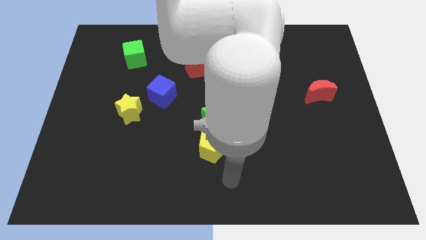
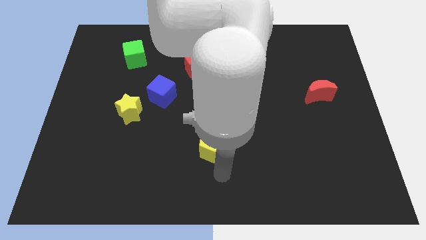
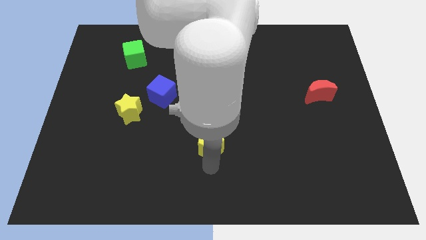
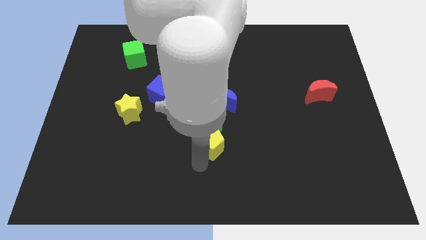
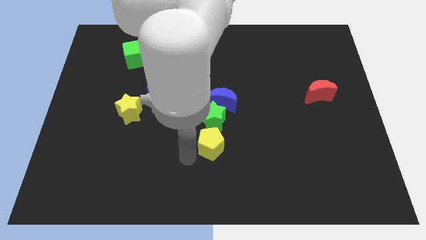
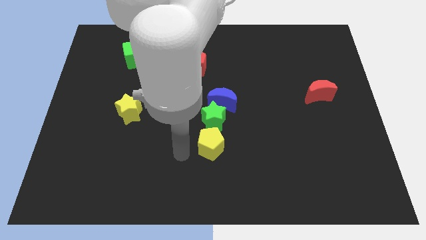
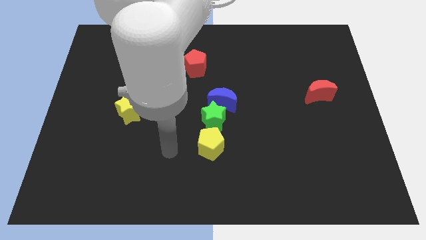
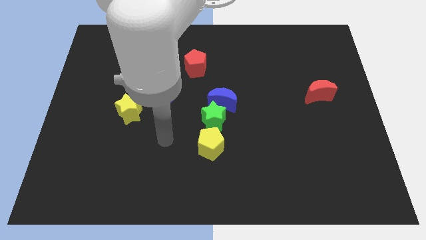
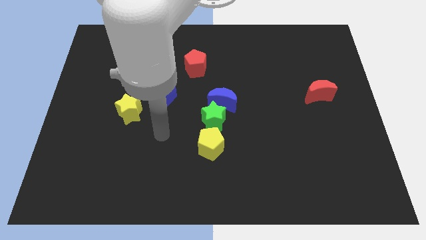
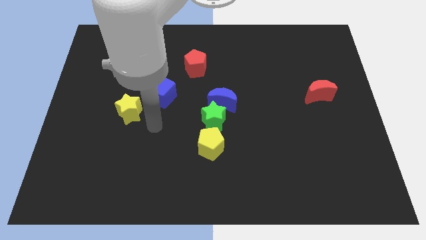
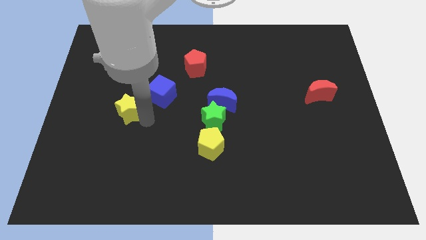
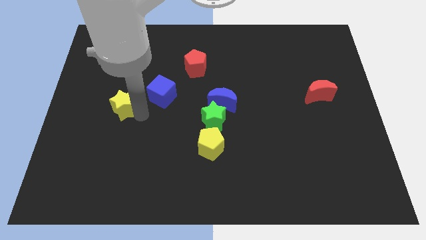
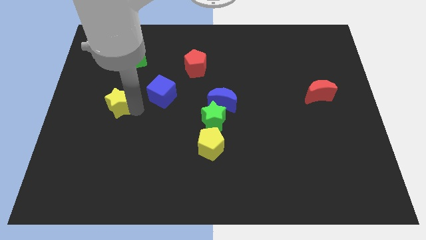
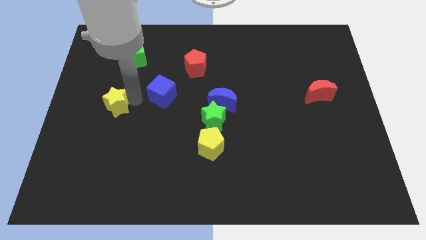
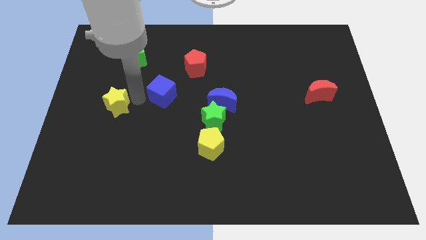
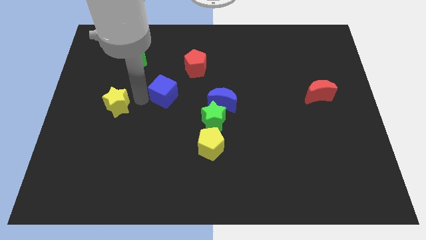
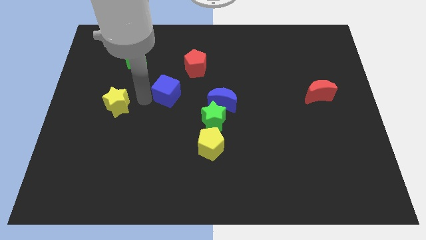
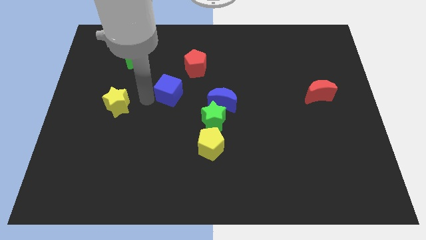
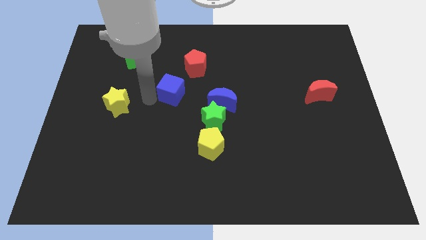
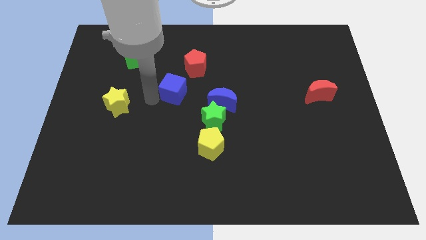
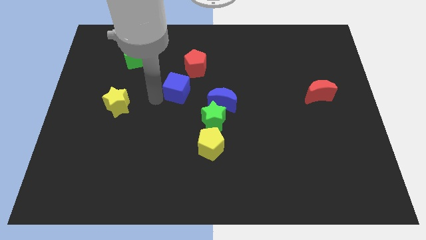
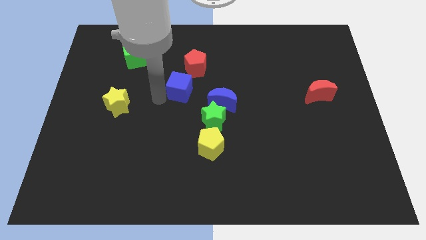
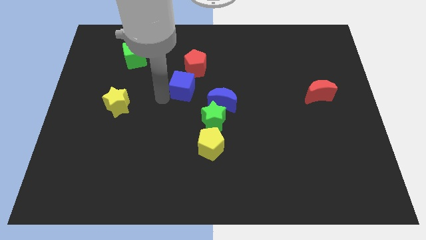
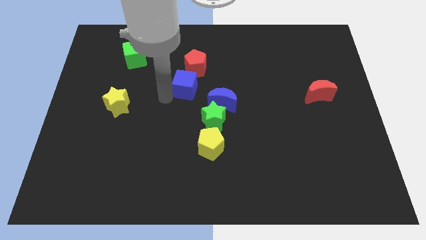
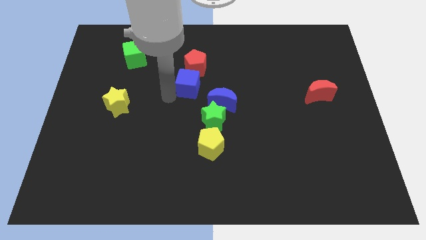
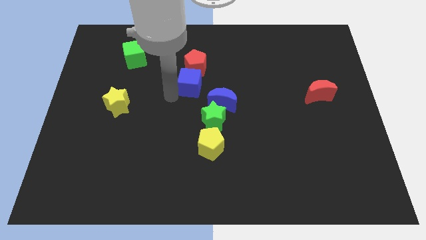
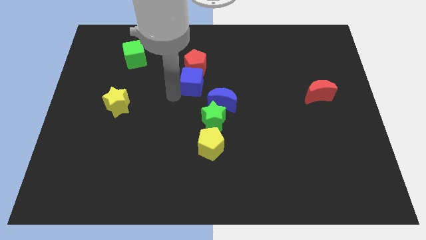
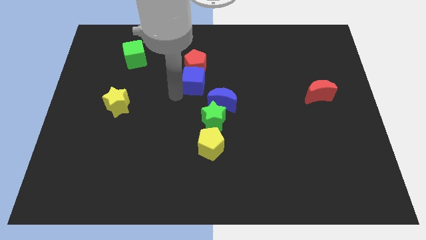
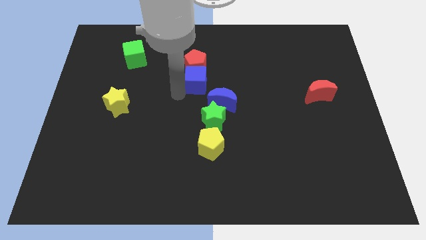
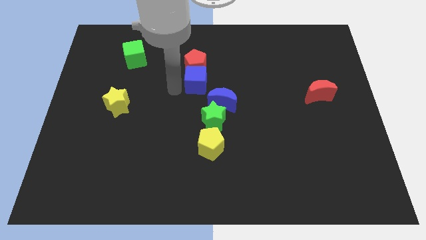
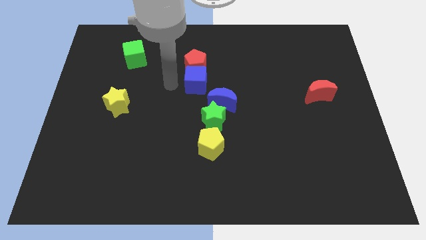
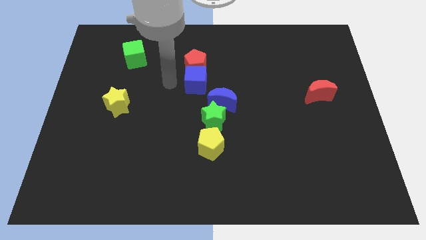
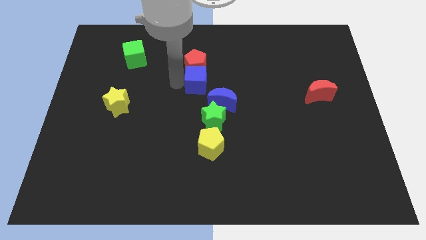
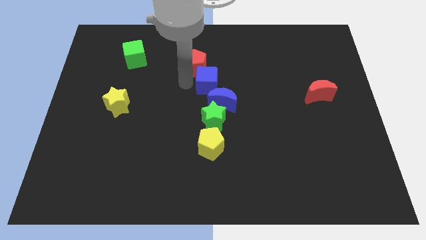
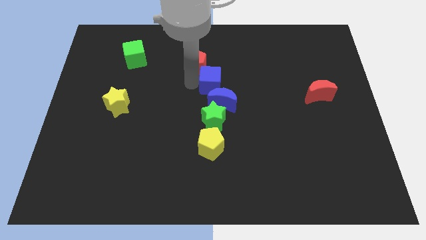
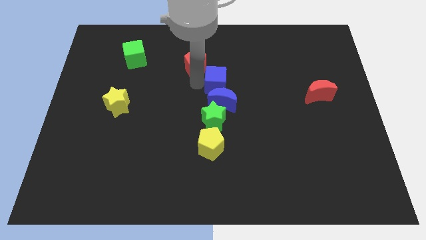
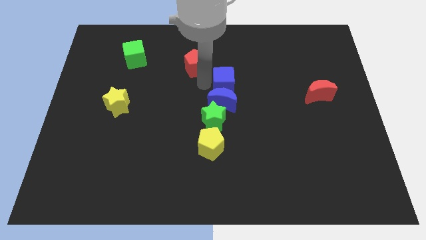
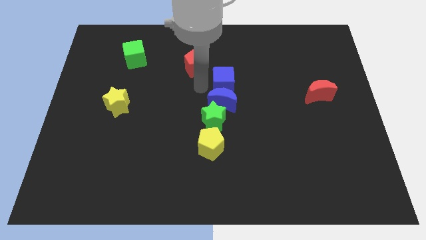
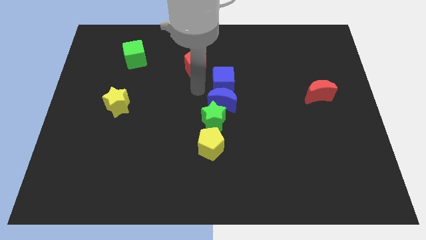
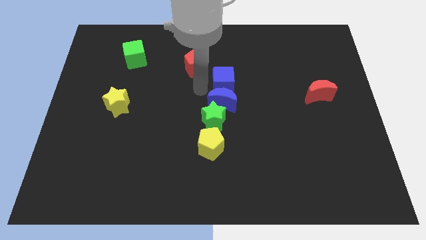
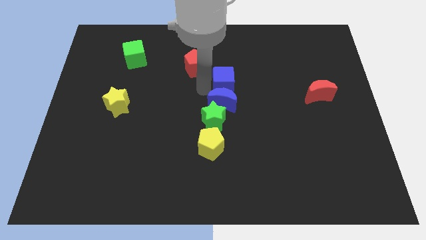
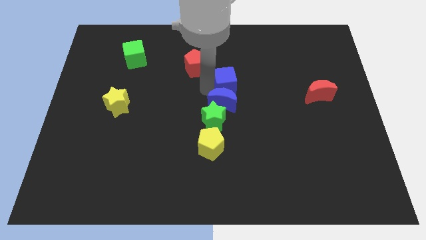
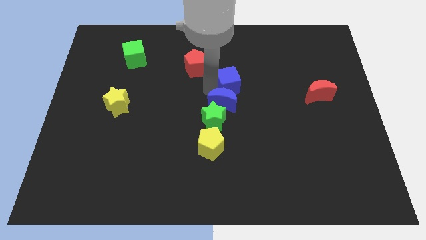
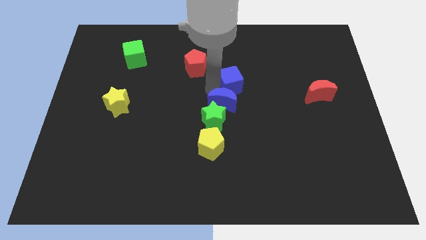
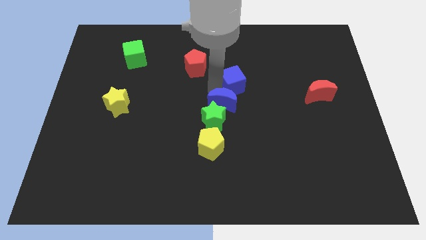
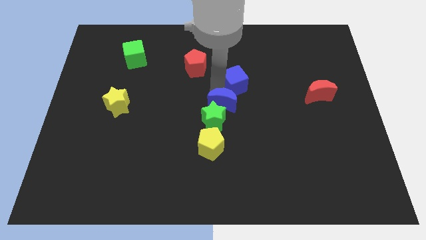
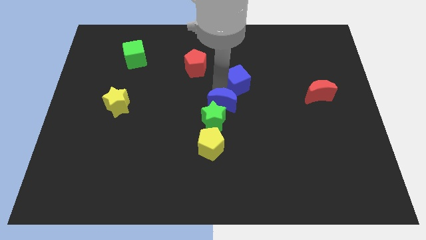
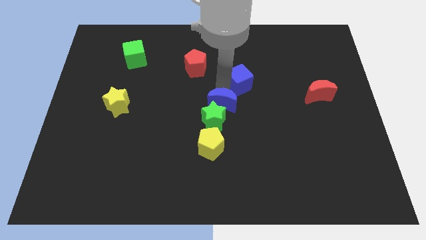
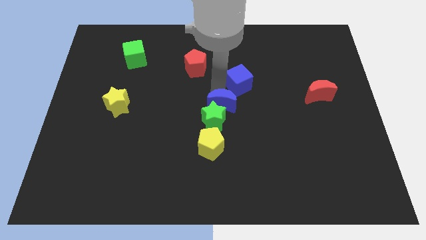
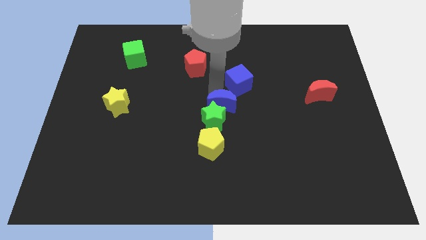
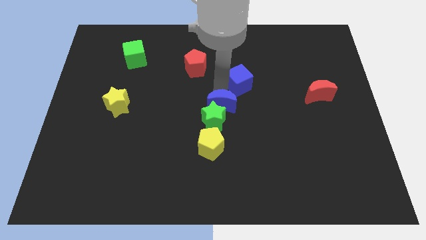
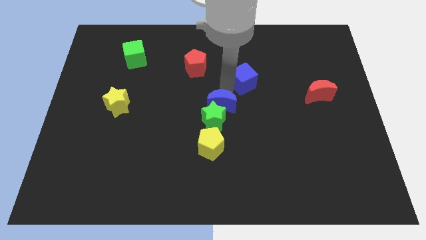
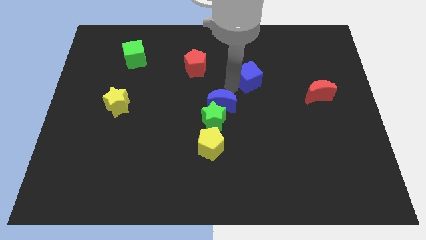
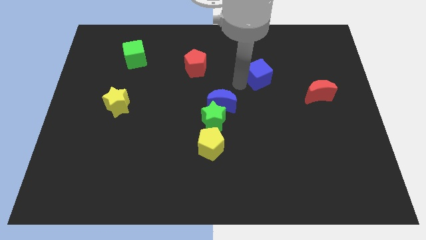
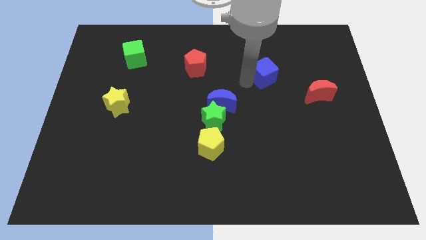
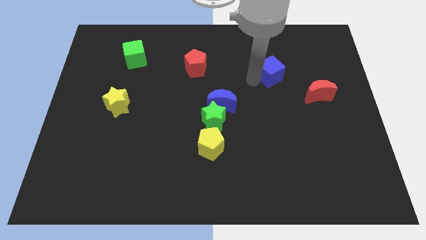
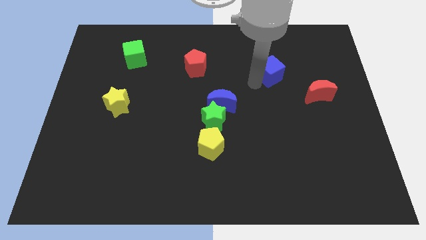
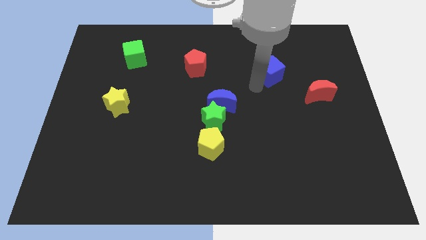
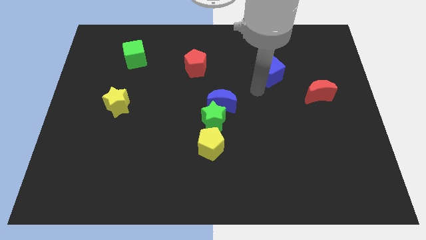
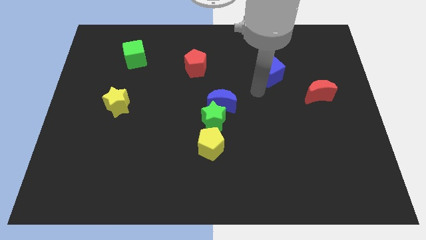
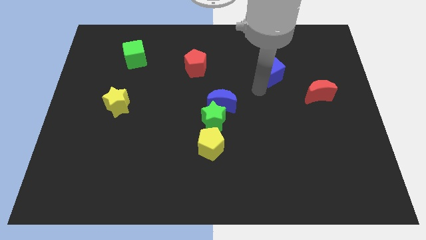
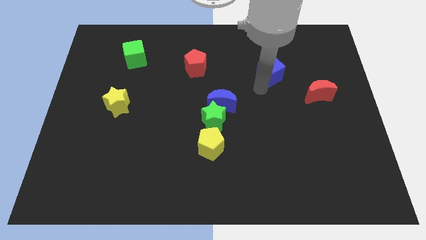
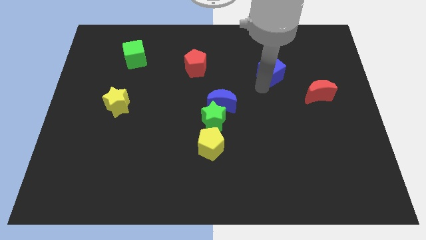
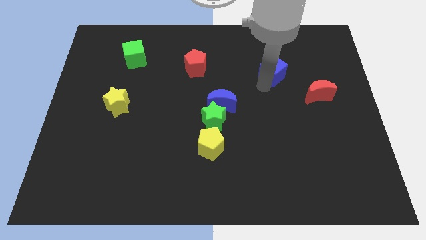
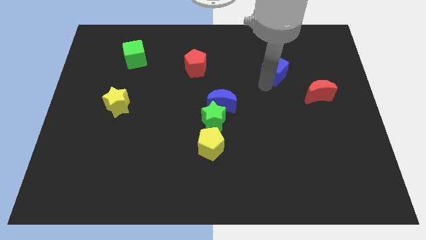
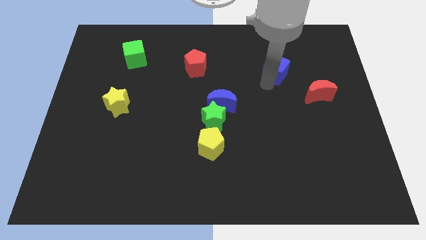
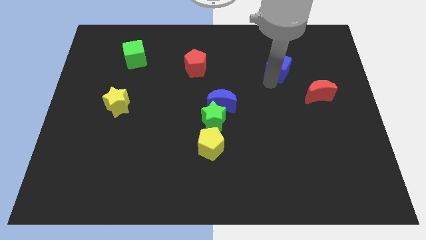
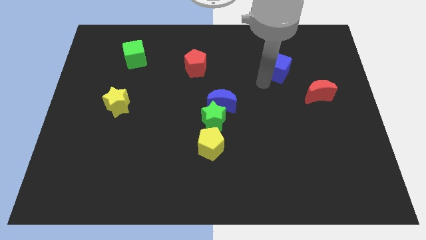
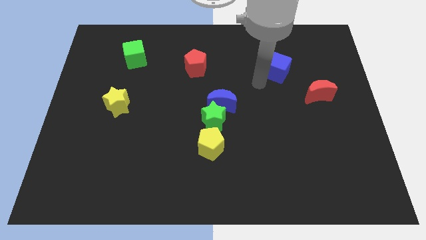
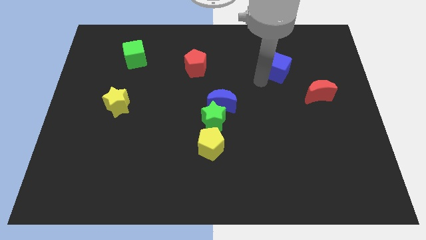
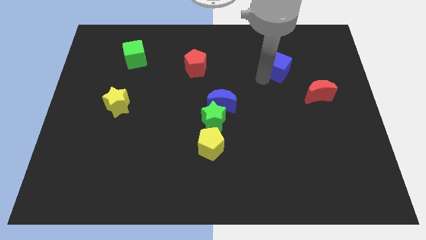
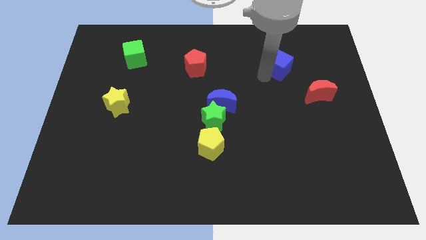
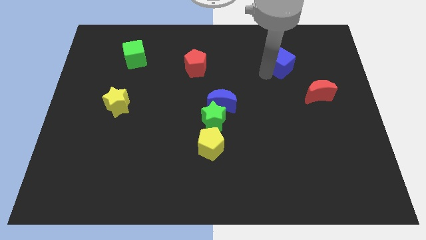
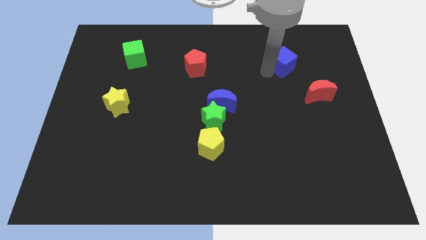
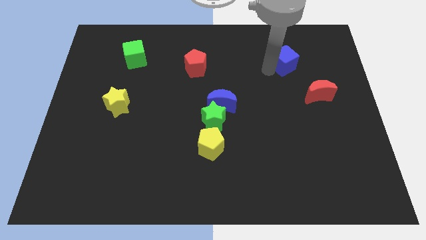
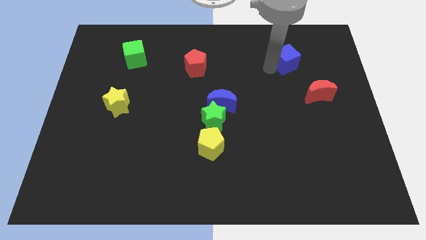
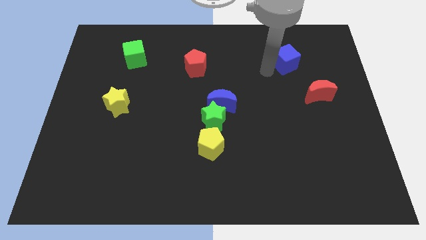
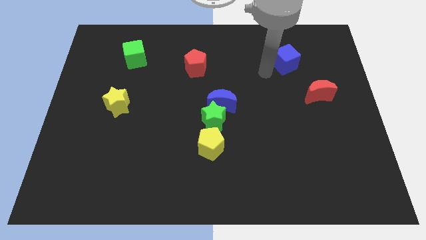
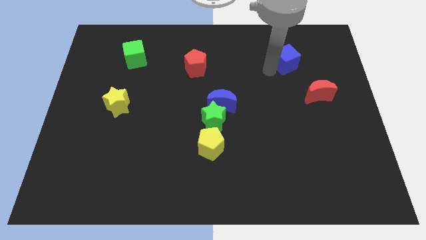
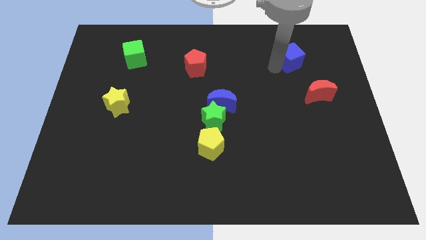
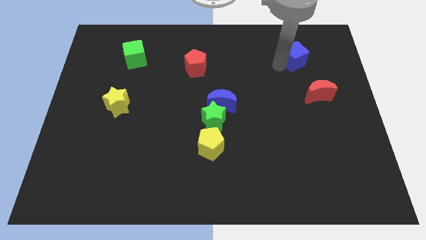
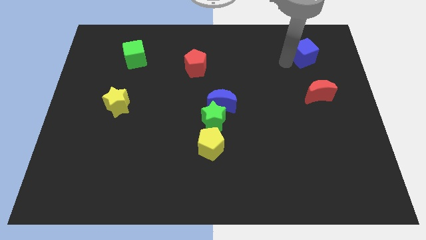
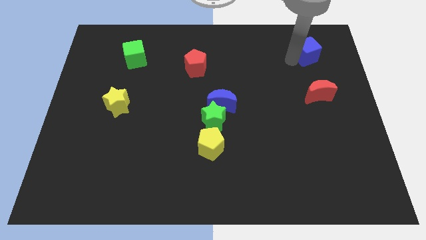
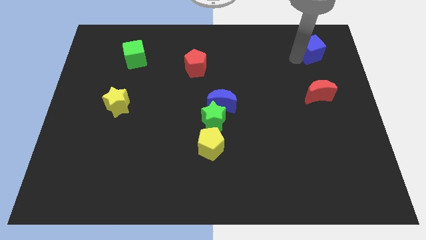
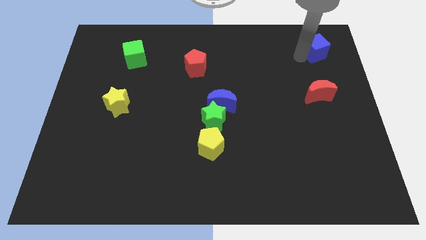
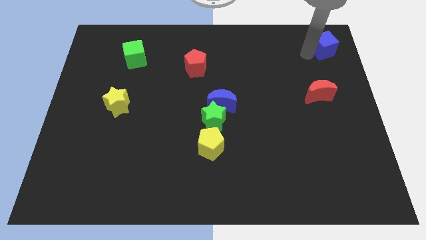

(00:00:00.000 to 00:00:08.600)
push the blue cube to the upper right corner
